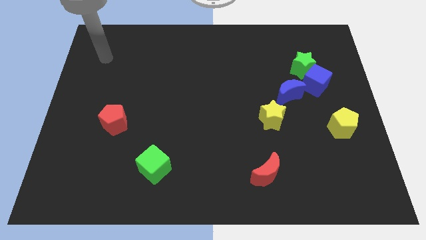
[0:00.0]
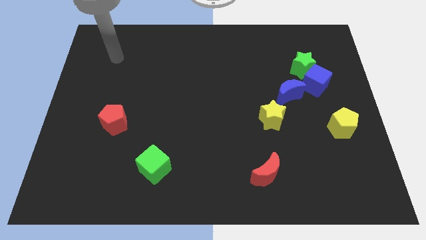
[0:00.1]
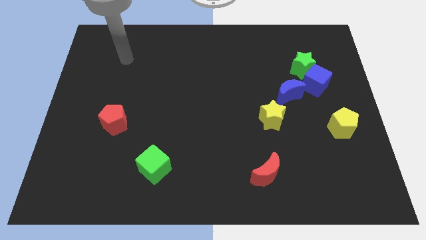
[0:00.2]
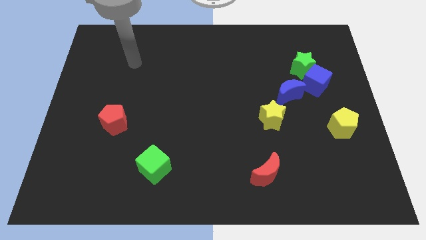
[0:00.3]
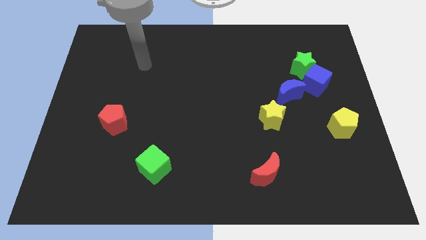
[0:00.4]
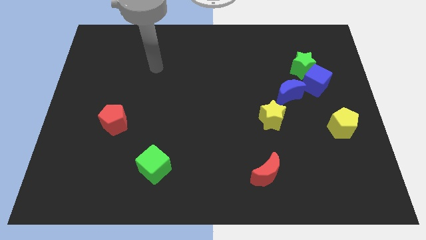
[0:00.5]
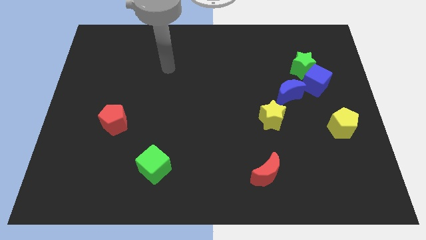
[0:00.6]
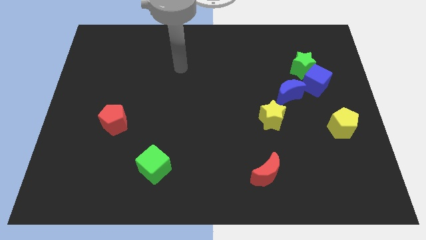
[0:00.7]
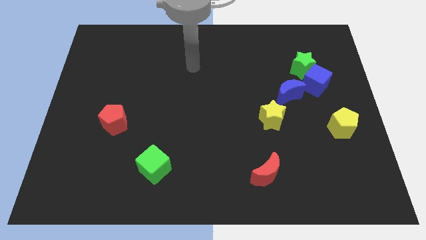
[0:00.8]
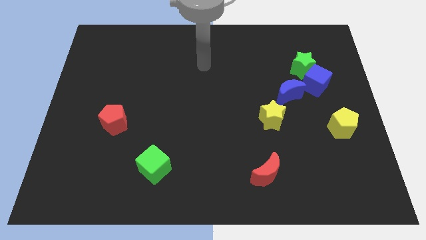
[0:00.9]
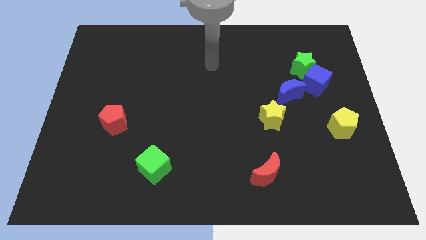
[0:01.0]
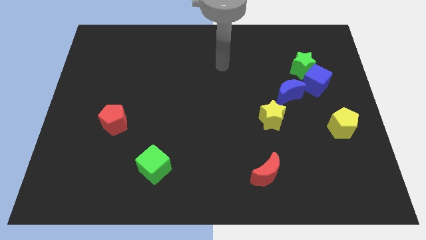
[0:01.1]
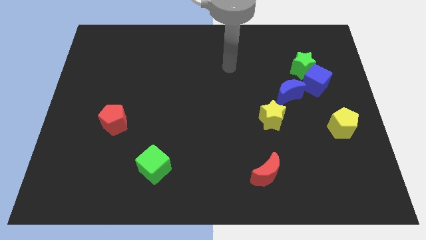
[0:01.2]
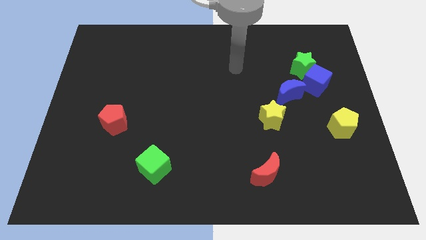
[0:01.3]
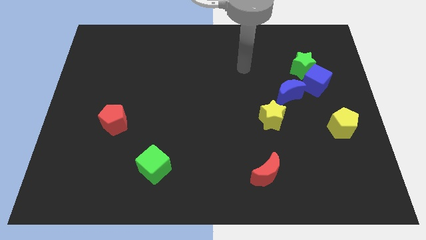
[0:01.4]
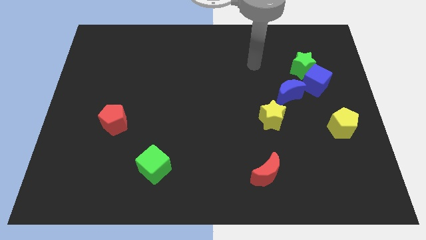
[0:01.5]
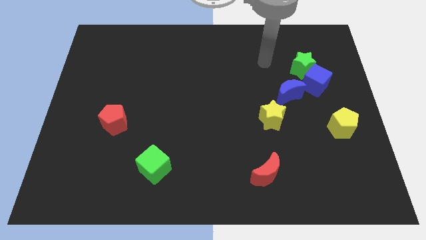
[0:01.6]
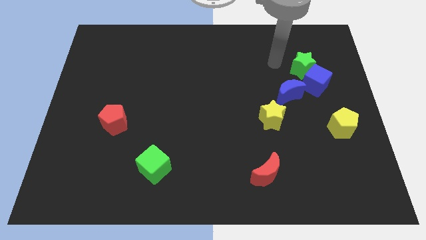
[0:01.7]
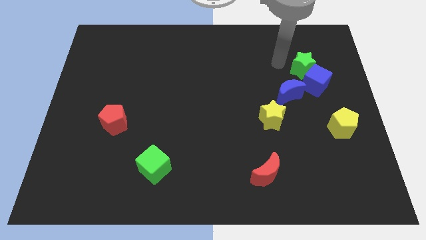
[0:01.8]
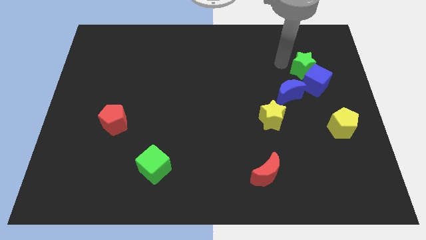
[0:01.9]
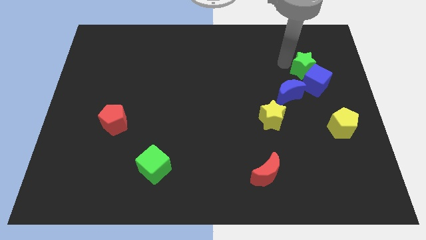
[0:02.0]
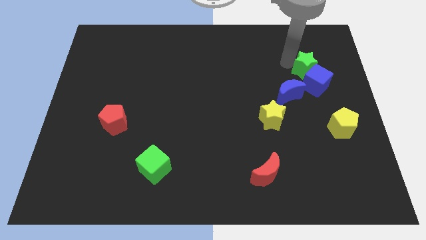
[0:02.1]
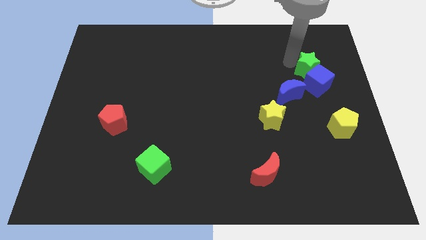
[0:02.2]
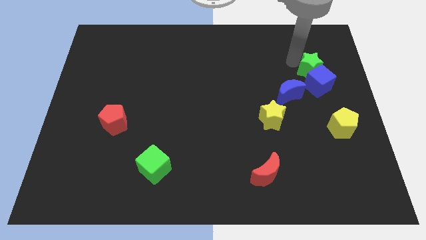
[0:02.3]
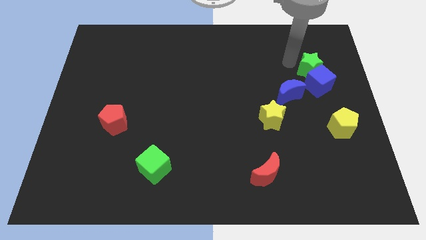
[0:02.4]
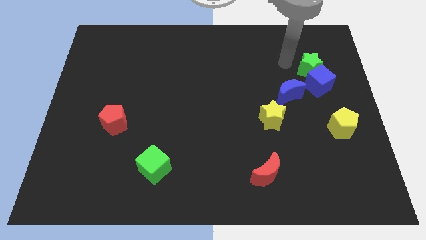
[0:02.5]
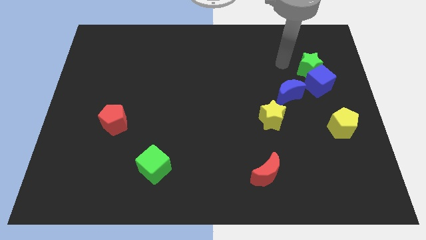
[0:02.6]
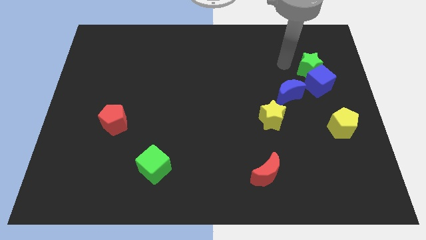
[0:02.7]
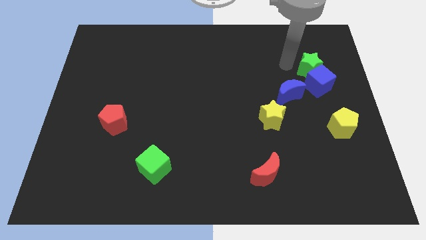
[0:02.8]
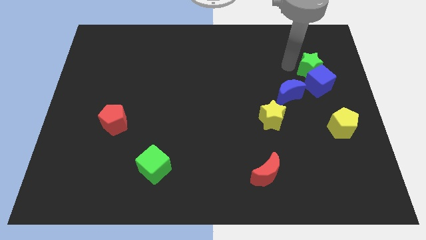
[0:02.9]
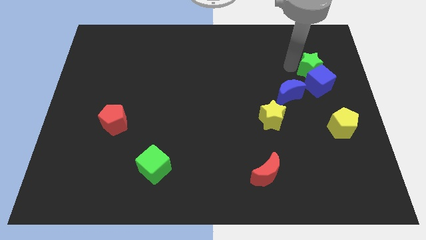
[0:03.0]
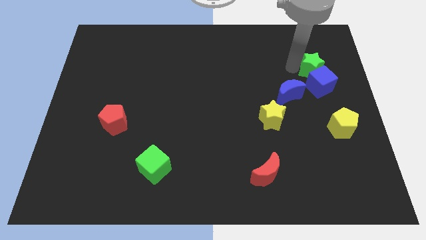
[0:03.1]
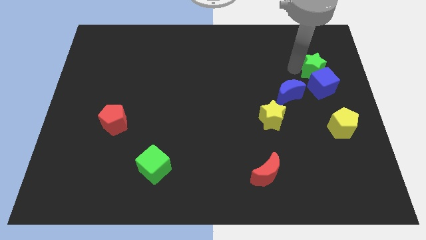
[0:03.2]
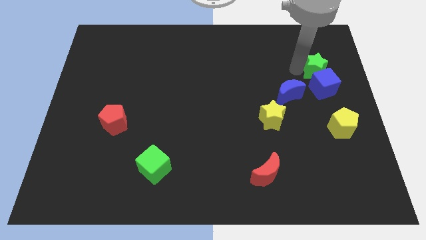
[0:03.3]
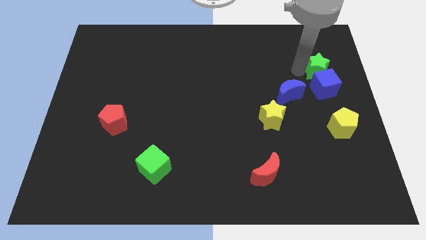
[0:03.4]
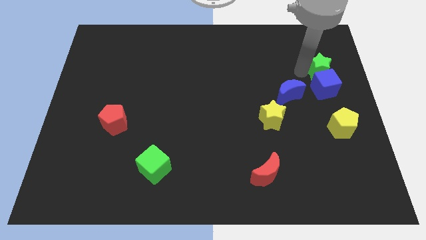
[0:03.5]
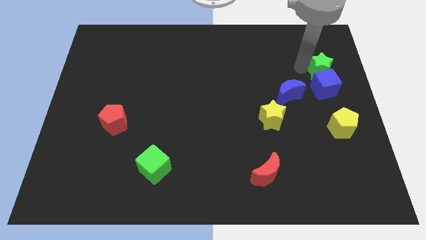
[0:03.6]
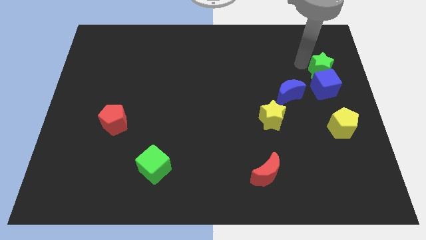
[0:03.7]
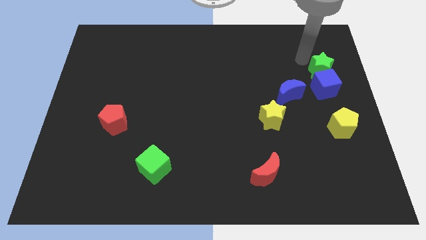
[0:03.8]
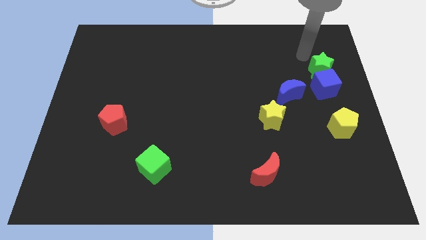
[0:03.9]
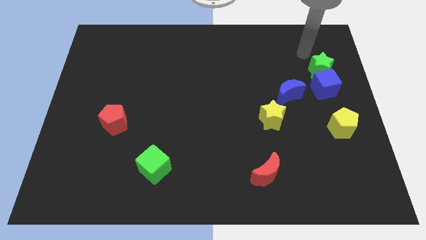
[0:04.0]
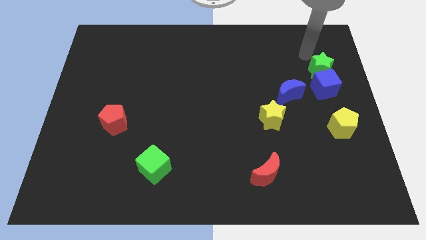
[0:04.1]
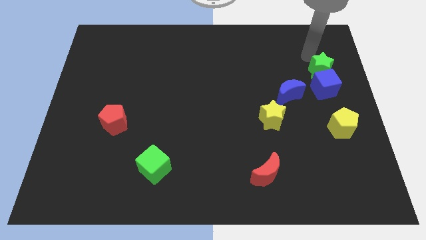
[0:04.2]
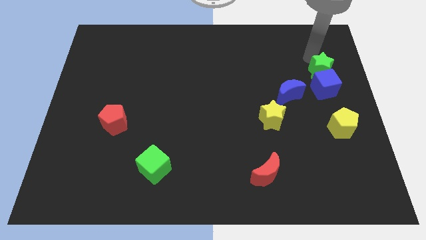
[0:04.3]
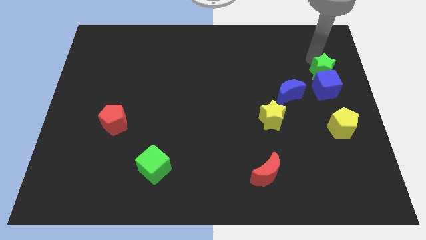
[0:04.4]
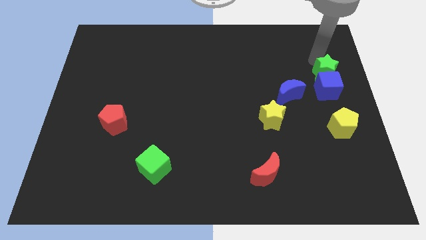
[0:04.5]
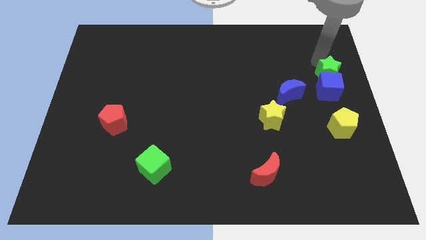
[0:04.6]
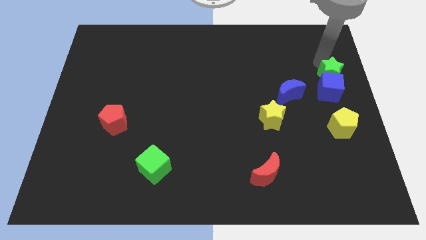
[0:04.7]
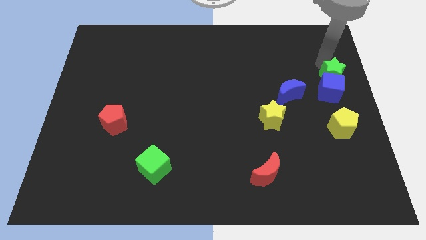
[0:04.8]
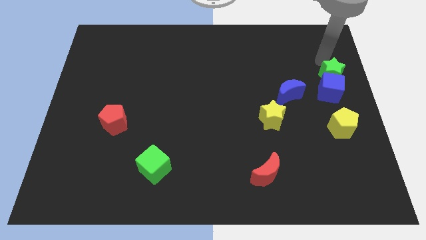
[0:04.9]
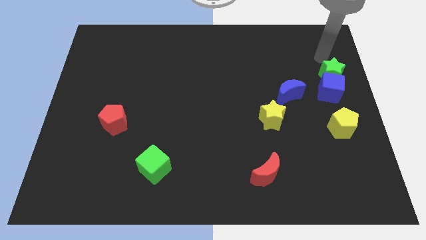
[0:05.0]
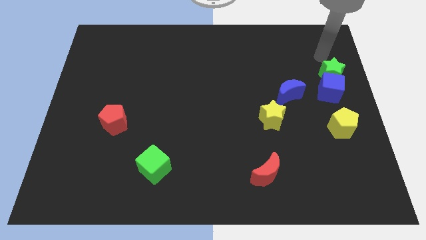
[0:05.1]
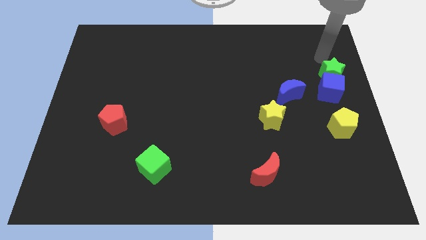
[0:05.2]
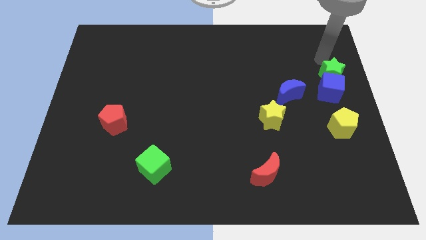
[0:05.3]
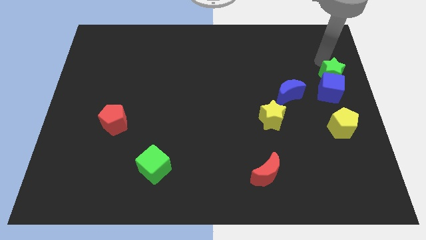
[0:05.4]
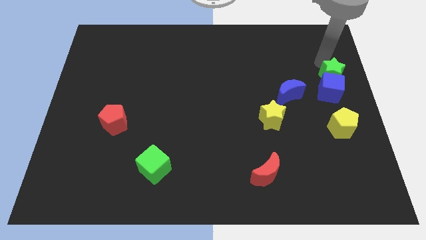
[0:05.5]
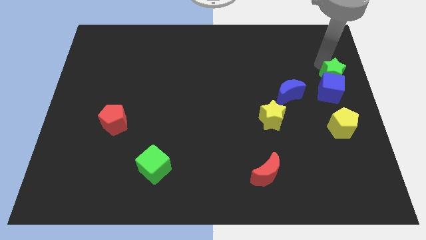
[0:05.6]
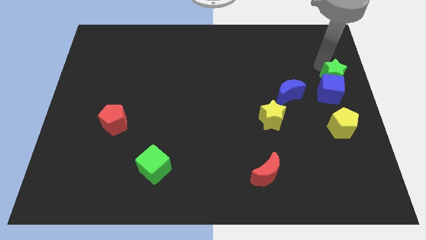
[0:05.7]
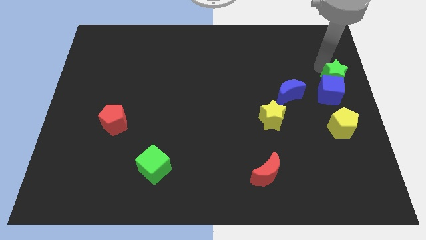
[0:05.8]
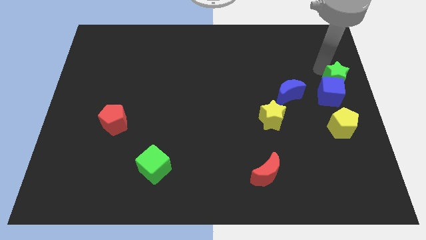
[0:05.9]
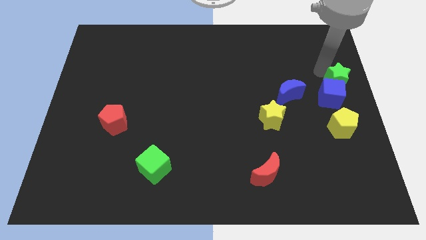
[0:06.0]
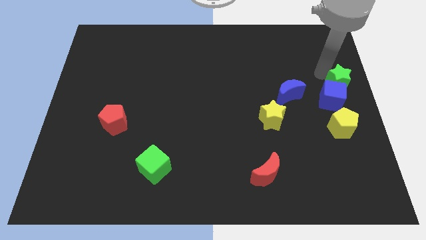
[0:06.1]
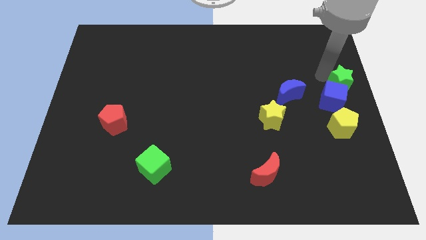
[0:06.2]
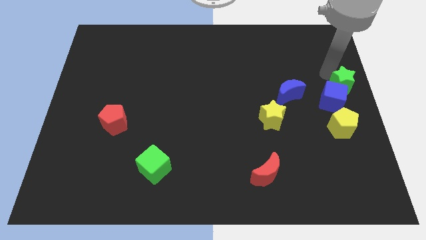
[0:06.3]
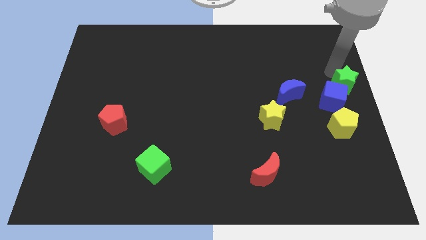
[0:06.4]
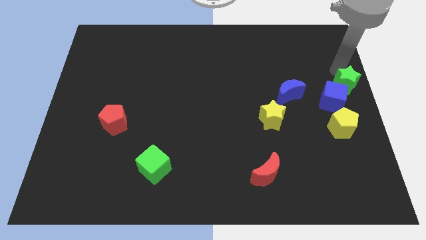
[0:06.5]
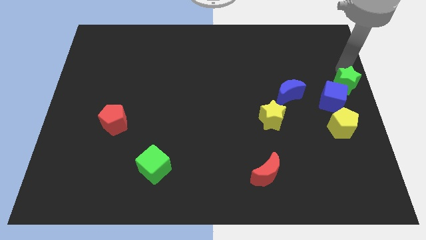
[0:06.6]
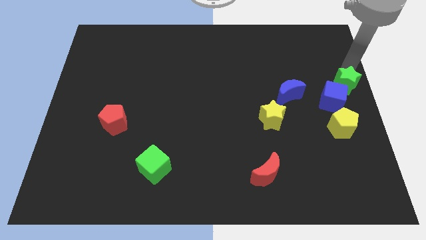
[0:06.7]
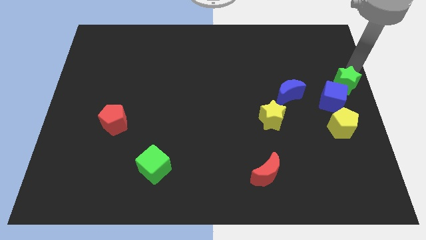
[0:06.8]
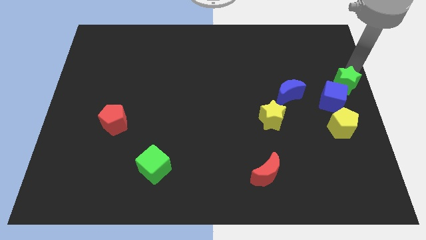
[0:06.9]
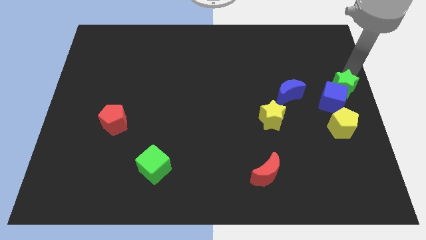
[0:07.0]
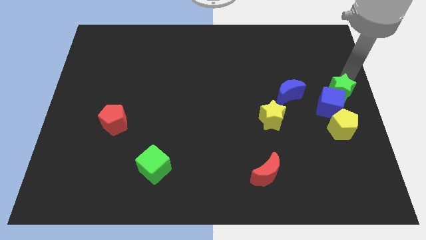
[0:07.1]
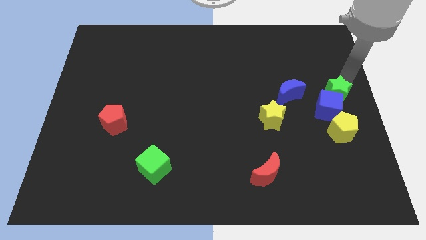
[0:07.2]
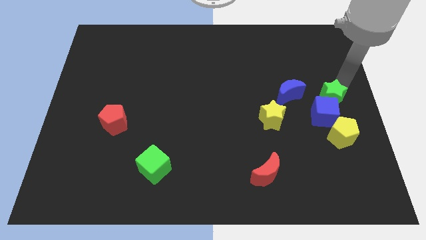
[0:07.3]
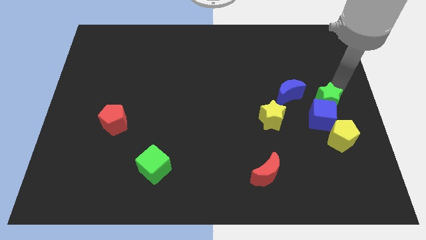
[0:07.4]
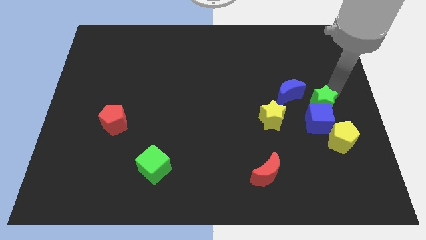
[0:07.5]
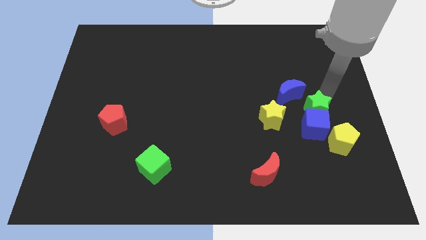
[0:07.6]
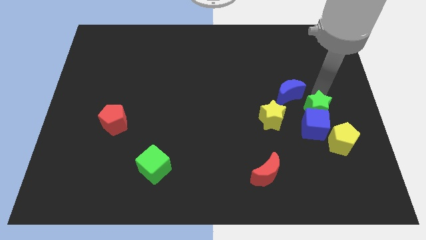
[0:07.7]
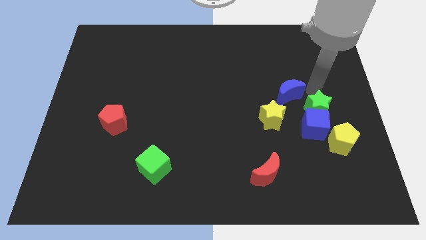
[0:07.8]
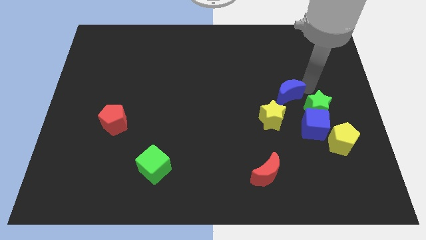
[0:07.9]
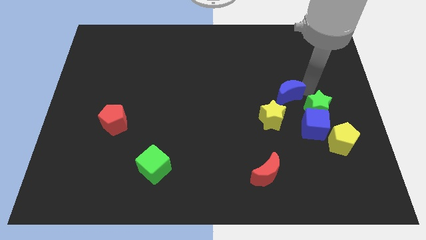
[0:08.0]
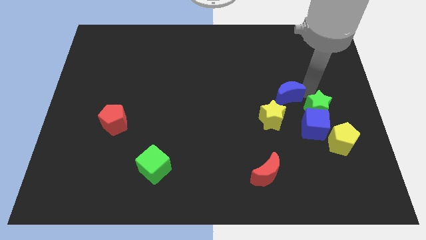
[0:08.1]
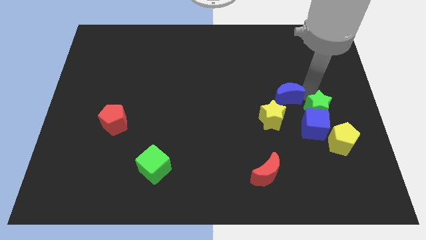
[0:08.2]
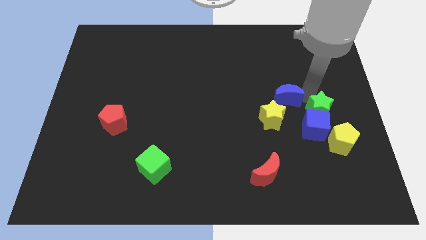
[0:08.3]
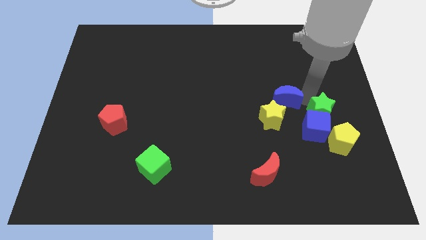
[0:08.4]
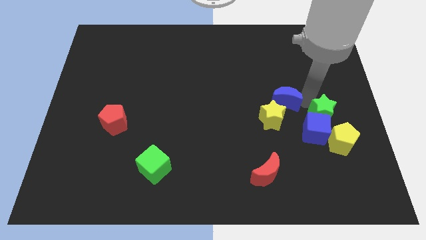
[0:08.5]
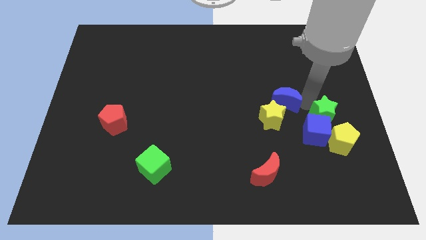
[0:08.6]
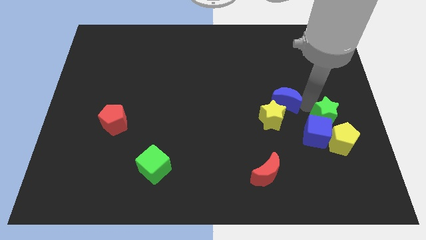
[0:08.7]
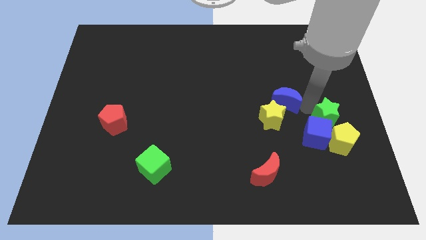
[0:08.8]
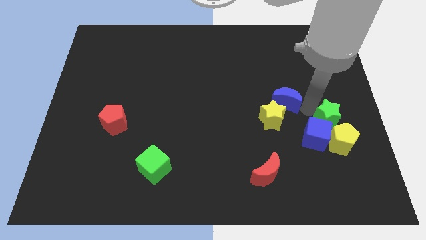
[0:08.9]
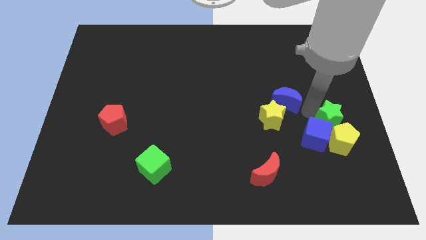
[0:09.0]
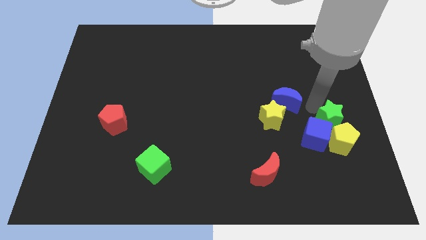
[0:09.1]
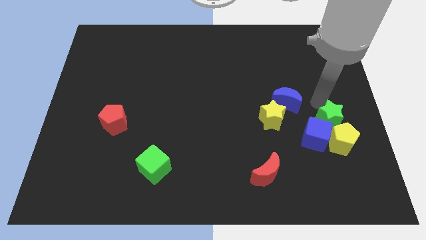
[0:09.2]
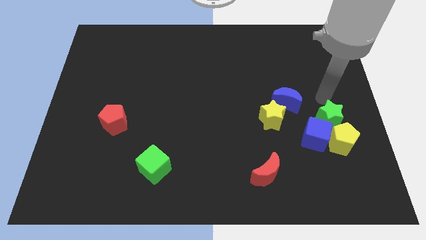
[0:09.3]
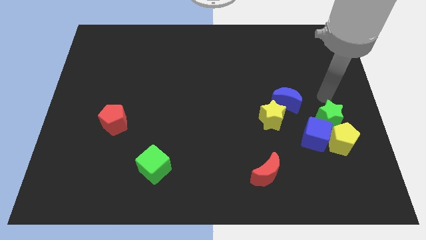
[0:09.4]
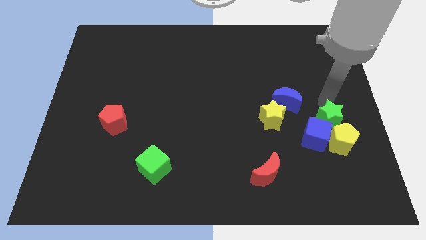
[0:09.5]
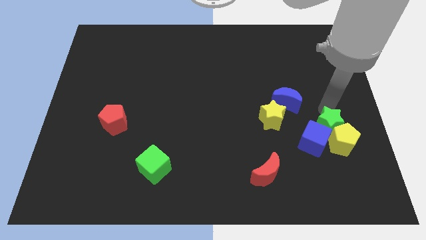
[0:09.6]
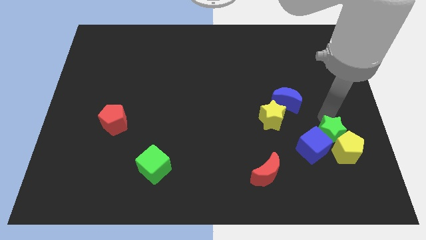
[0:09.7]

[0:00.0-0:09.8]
push the green star down
